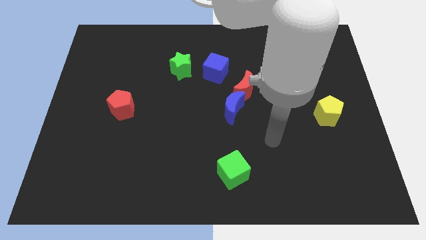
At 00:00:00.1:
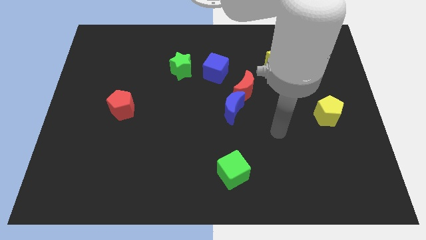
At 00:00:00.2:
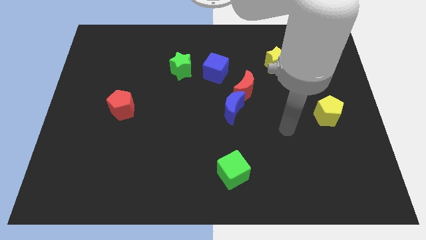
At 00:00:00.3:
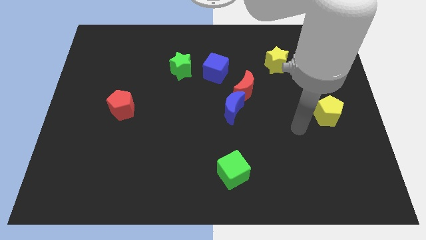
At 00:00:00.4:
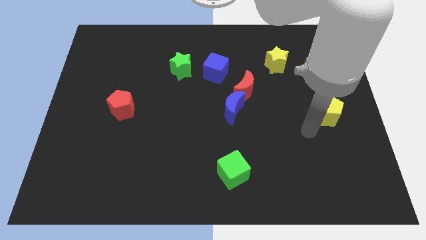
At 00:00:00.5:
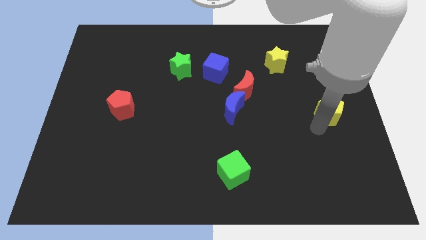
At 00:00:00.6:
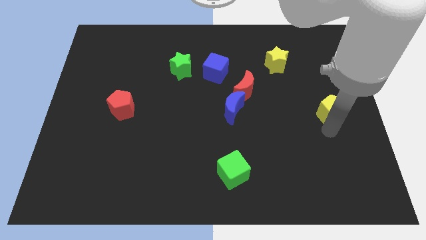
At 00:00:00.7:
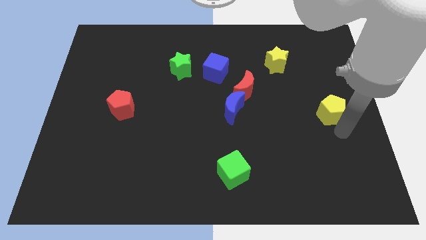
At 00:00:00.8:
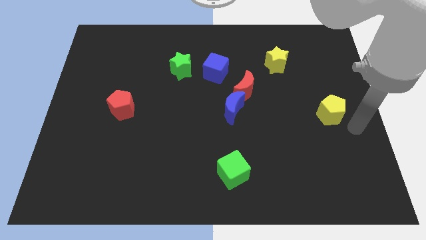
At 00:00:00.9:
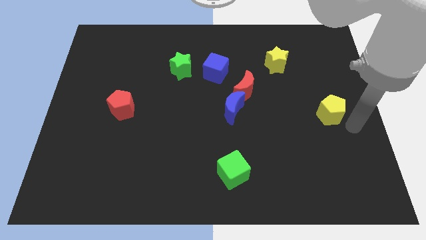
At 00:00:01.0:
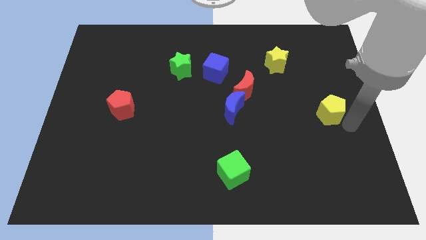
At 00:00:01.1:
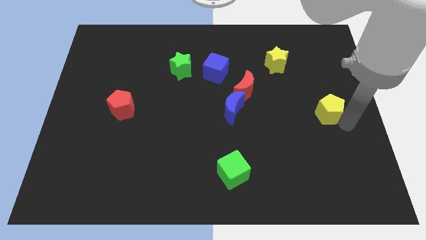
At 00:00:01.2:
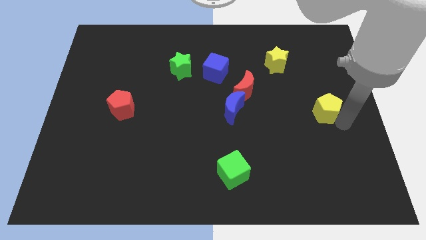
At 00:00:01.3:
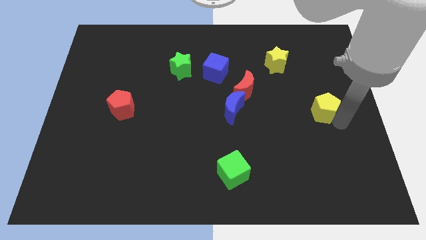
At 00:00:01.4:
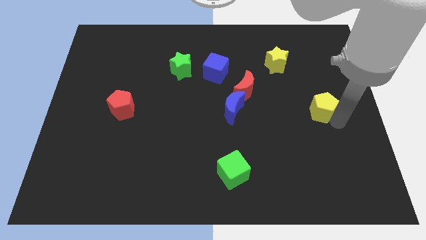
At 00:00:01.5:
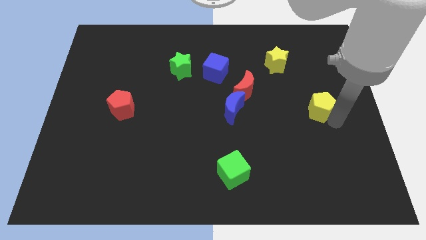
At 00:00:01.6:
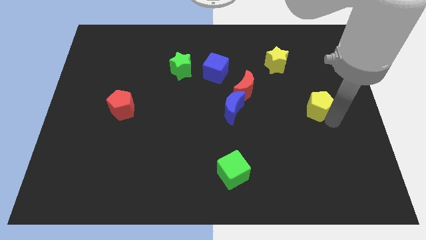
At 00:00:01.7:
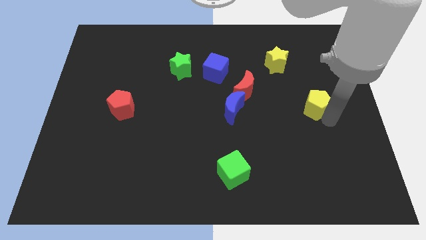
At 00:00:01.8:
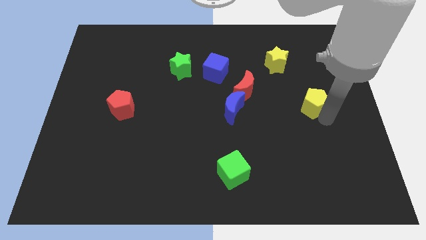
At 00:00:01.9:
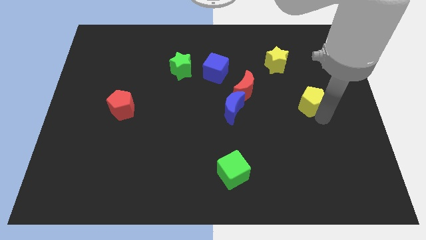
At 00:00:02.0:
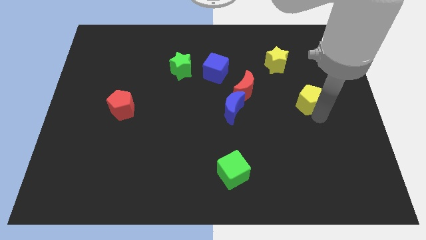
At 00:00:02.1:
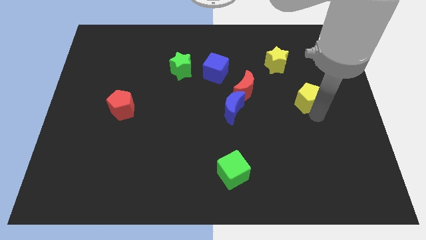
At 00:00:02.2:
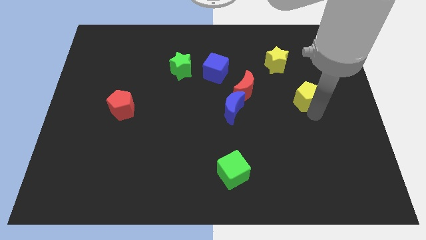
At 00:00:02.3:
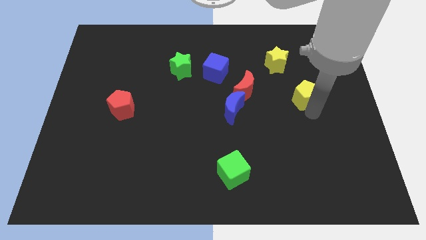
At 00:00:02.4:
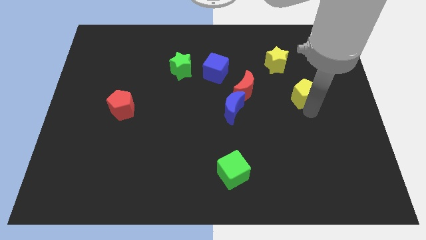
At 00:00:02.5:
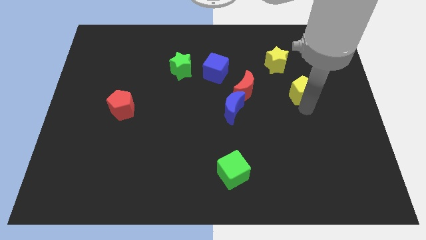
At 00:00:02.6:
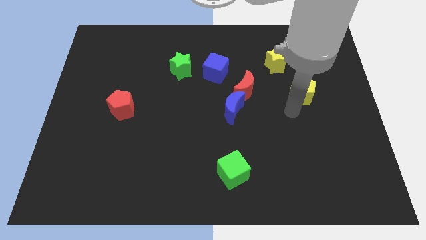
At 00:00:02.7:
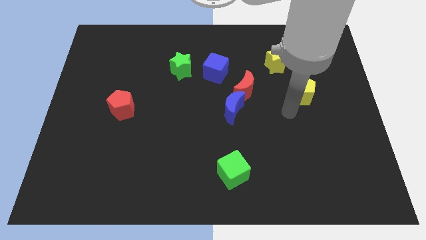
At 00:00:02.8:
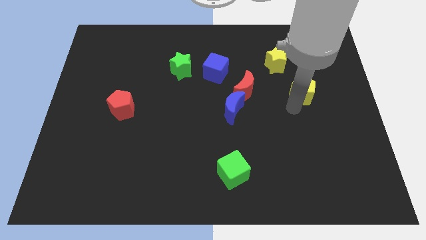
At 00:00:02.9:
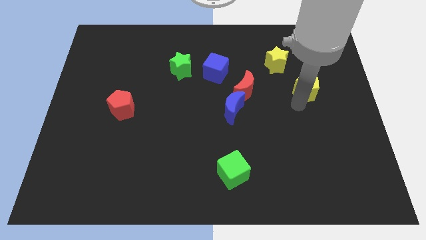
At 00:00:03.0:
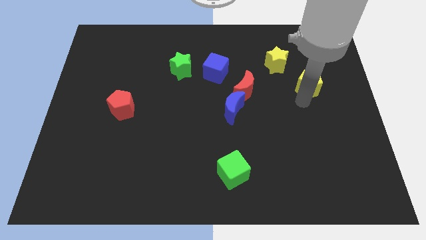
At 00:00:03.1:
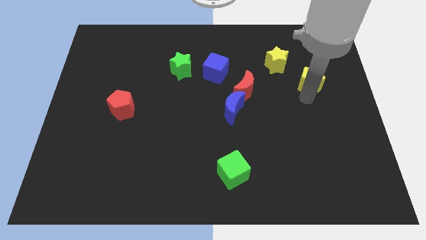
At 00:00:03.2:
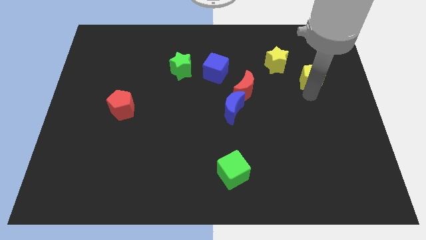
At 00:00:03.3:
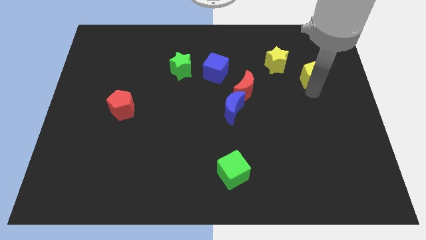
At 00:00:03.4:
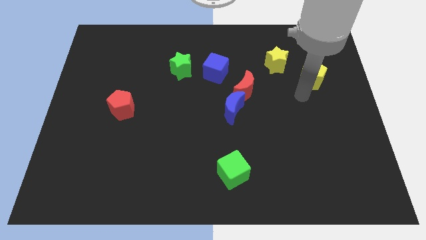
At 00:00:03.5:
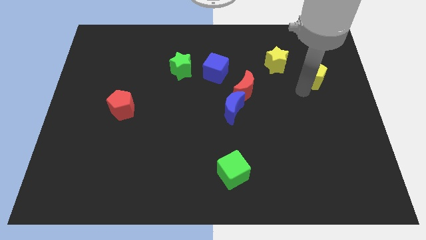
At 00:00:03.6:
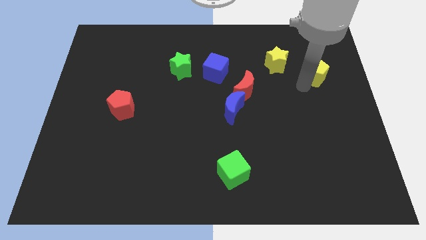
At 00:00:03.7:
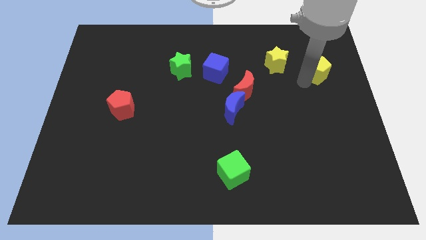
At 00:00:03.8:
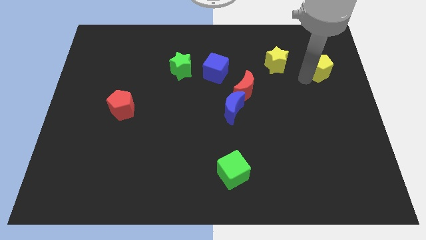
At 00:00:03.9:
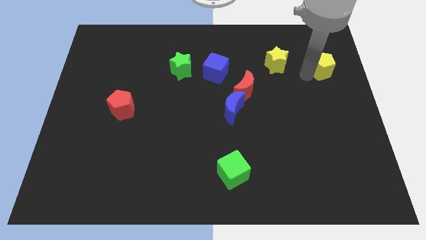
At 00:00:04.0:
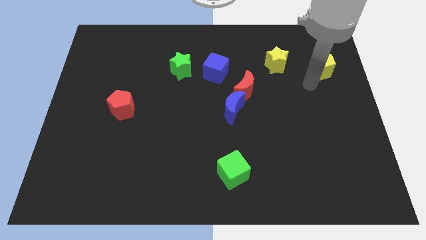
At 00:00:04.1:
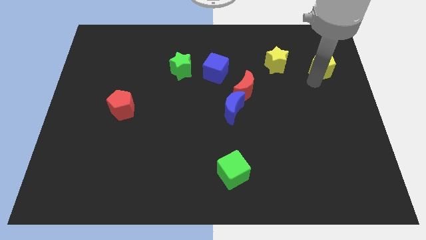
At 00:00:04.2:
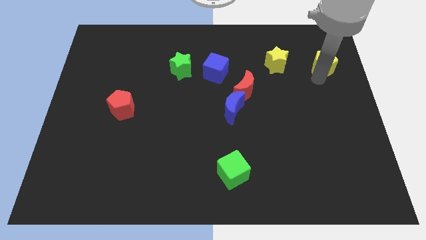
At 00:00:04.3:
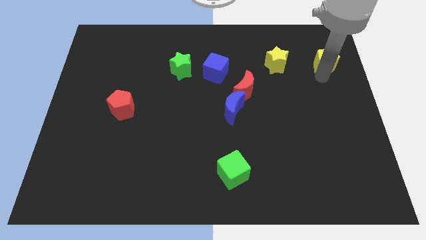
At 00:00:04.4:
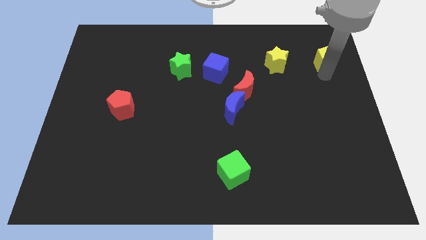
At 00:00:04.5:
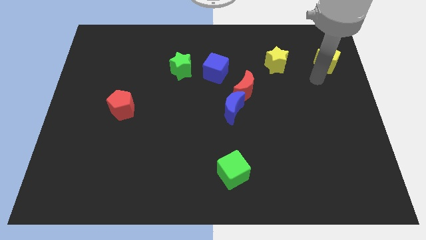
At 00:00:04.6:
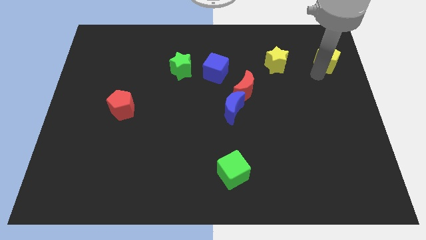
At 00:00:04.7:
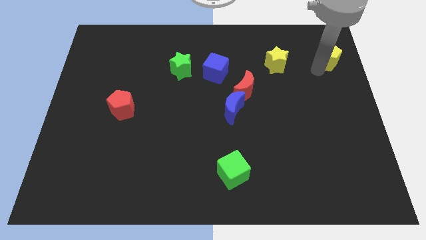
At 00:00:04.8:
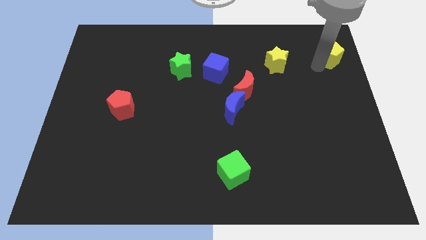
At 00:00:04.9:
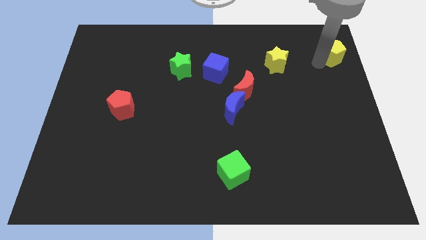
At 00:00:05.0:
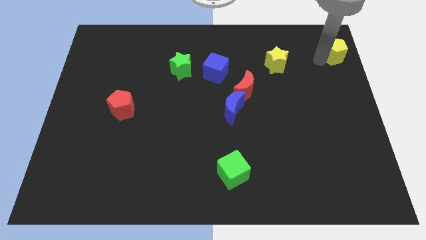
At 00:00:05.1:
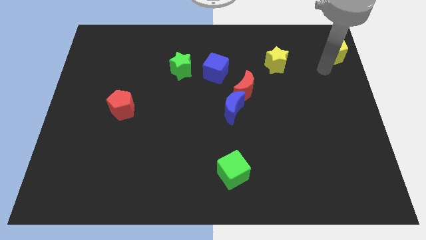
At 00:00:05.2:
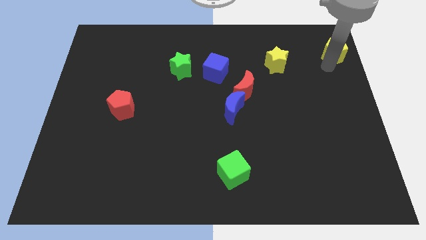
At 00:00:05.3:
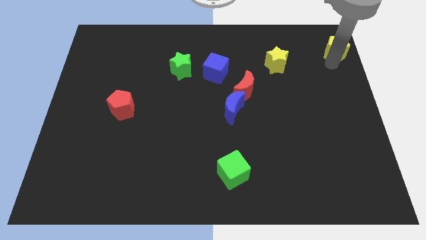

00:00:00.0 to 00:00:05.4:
move the yellow pentagon to the top right

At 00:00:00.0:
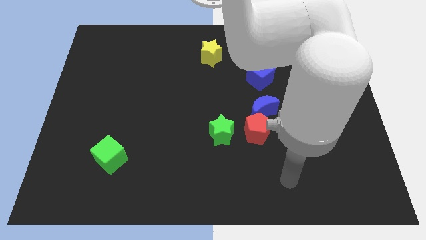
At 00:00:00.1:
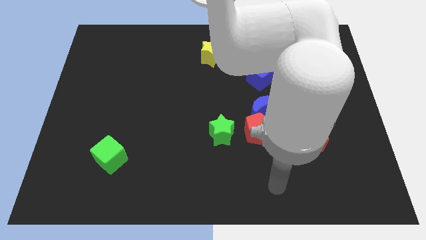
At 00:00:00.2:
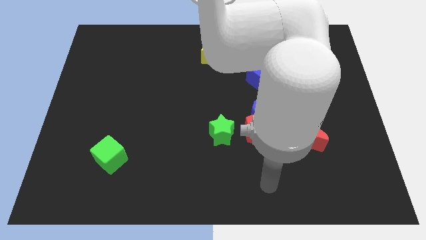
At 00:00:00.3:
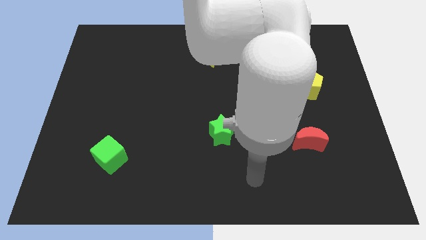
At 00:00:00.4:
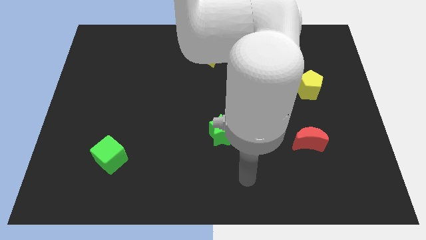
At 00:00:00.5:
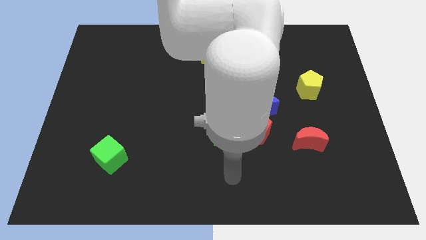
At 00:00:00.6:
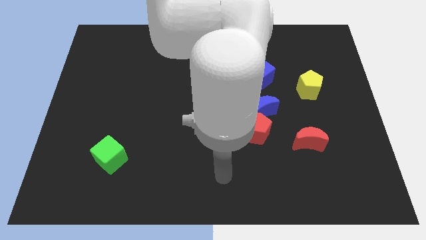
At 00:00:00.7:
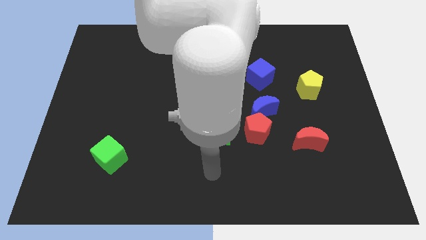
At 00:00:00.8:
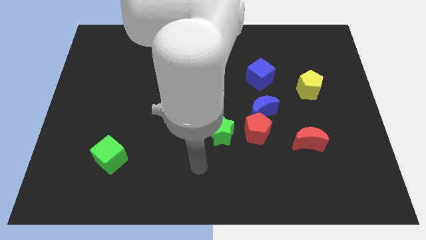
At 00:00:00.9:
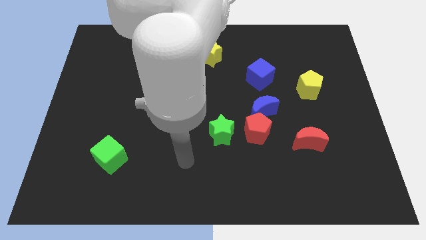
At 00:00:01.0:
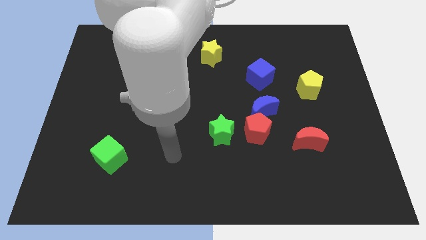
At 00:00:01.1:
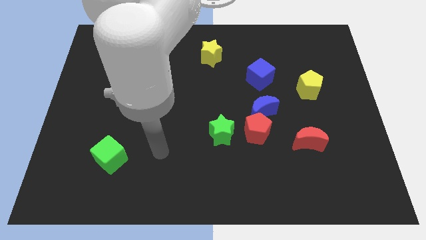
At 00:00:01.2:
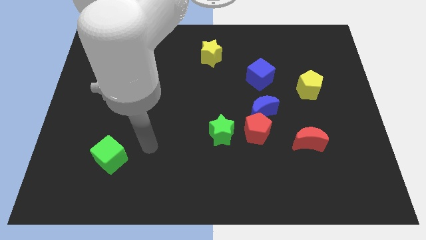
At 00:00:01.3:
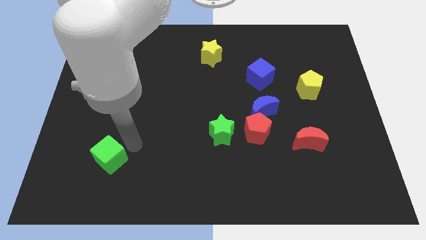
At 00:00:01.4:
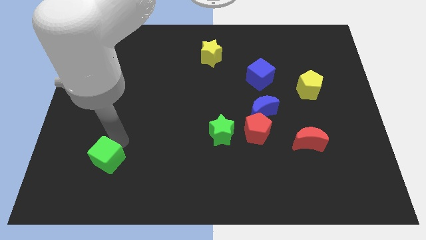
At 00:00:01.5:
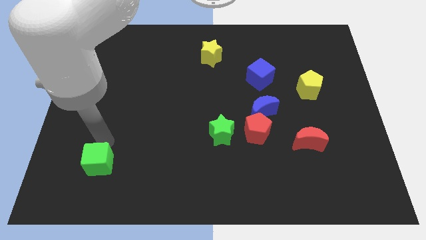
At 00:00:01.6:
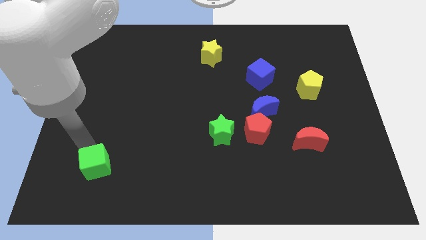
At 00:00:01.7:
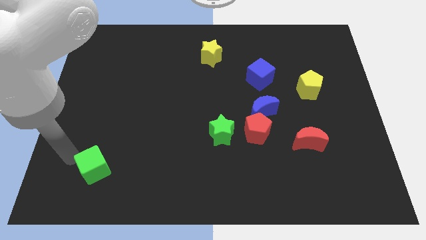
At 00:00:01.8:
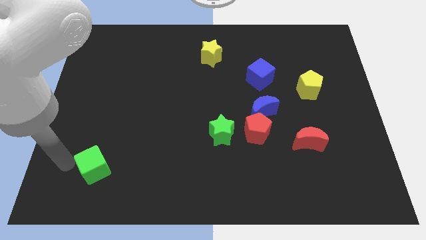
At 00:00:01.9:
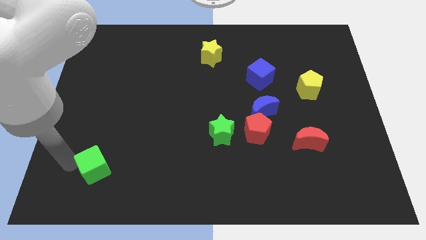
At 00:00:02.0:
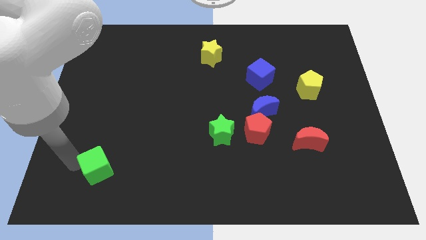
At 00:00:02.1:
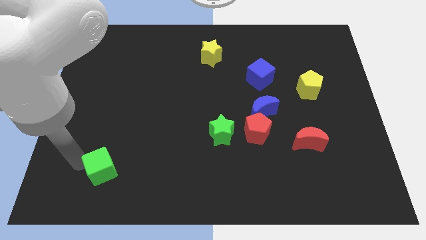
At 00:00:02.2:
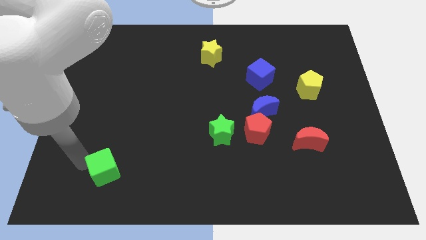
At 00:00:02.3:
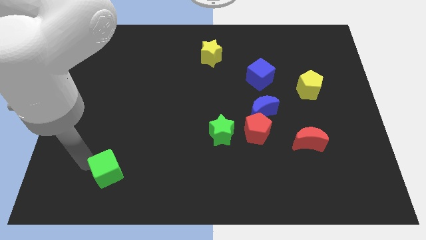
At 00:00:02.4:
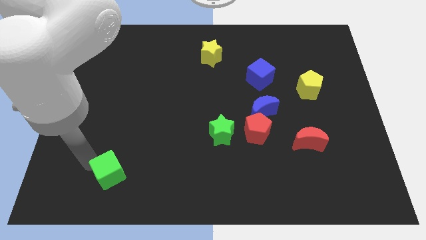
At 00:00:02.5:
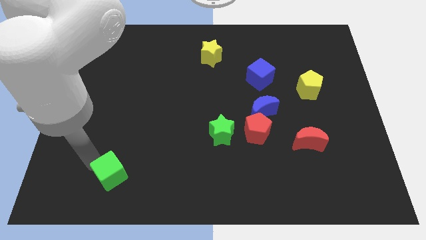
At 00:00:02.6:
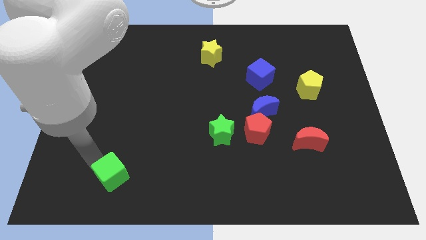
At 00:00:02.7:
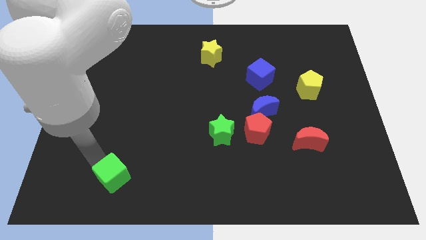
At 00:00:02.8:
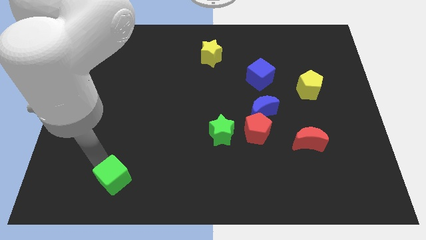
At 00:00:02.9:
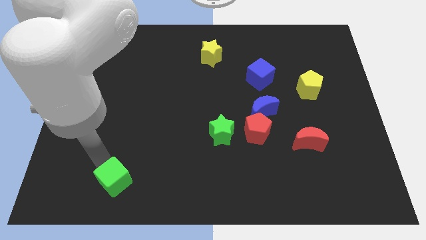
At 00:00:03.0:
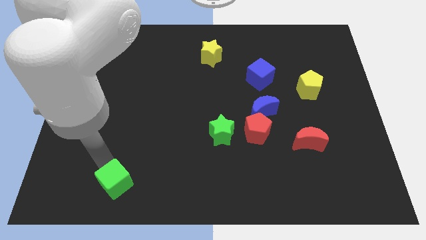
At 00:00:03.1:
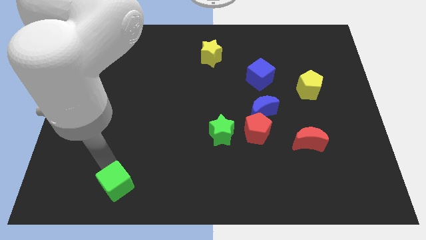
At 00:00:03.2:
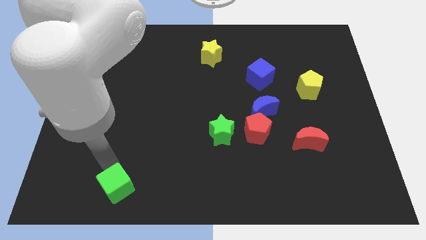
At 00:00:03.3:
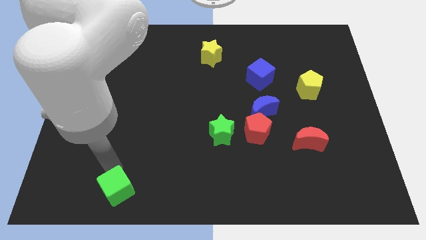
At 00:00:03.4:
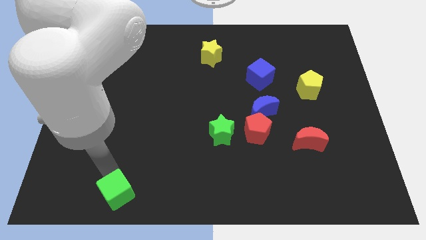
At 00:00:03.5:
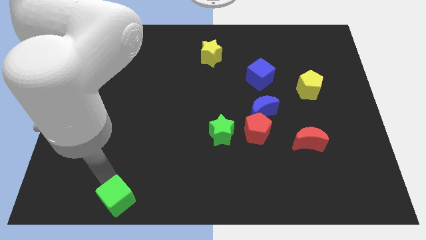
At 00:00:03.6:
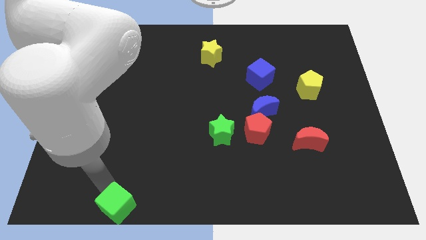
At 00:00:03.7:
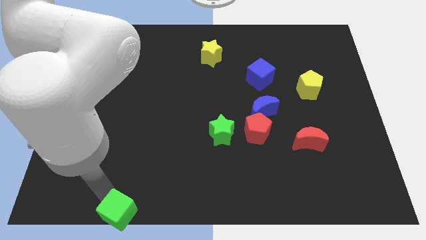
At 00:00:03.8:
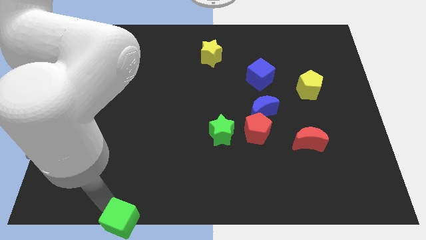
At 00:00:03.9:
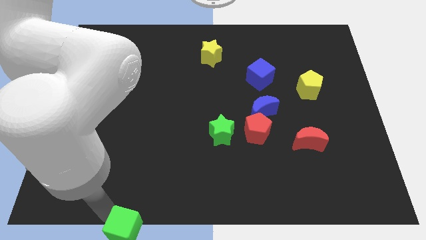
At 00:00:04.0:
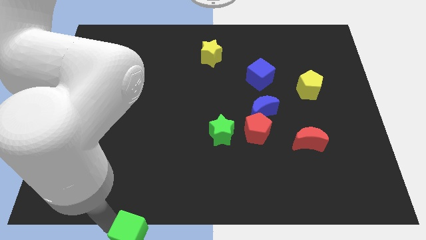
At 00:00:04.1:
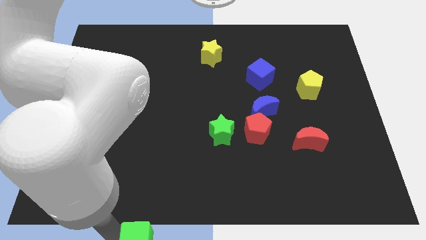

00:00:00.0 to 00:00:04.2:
slide the green cube to the bottom
